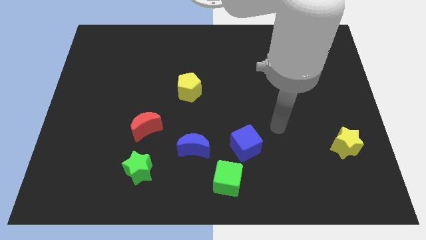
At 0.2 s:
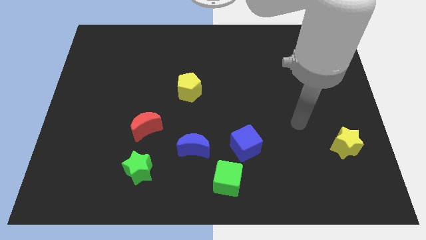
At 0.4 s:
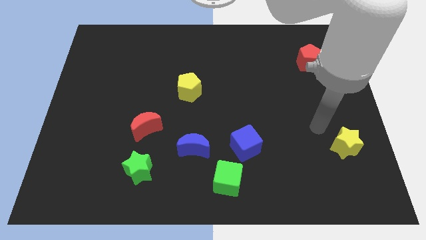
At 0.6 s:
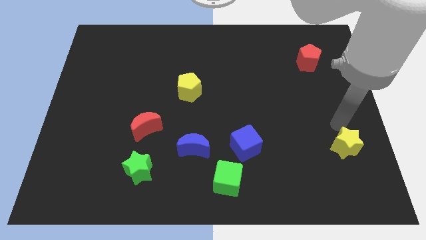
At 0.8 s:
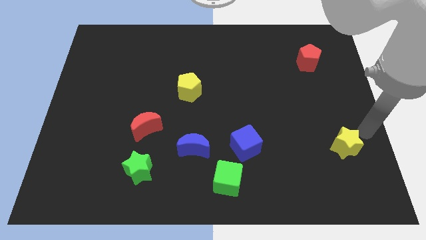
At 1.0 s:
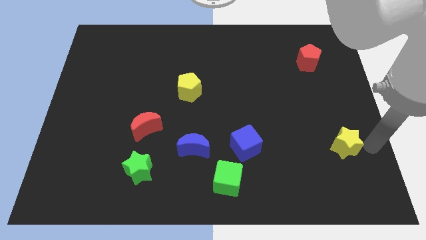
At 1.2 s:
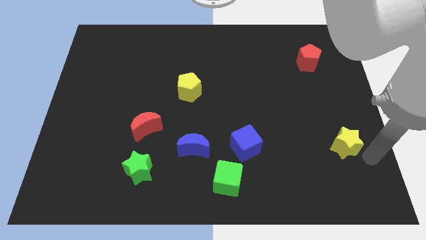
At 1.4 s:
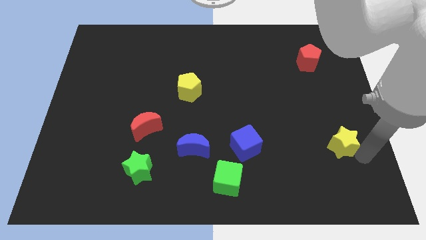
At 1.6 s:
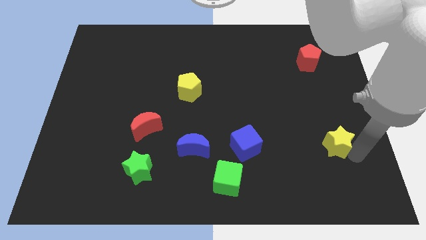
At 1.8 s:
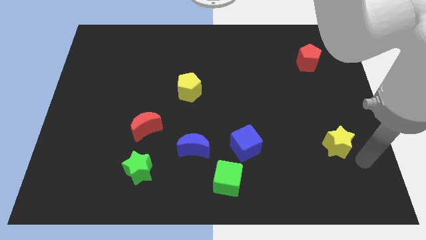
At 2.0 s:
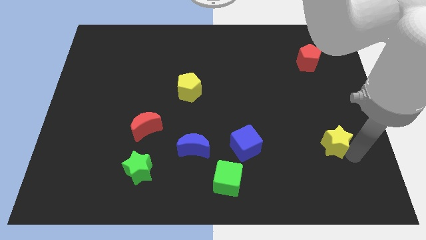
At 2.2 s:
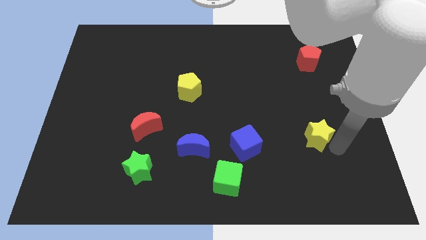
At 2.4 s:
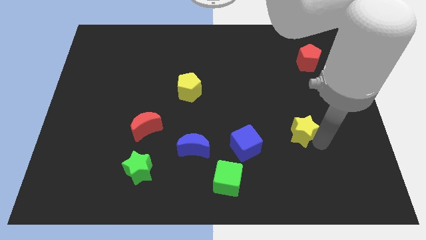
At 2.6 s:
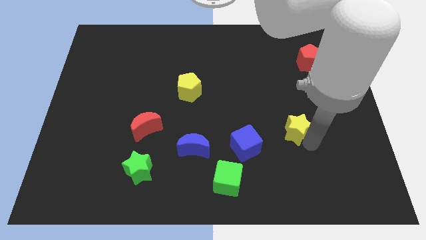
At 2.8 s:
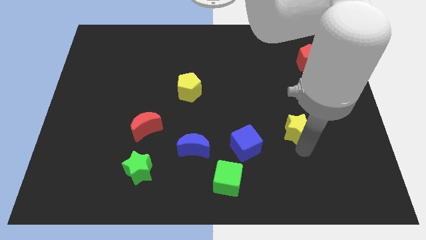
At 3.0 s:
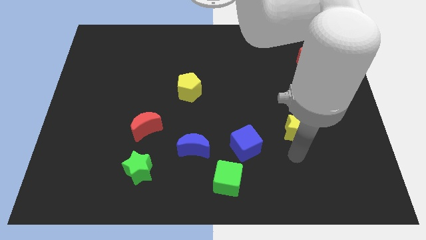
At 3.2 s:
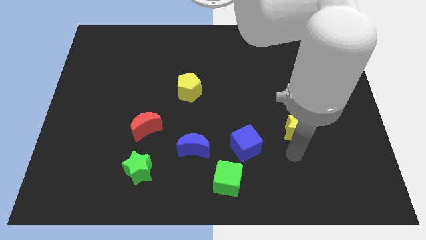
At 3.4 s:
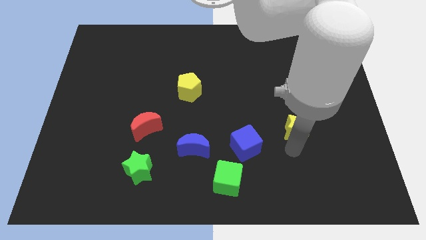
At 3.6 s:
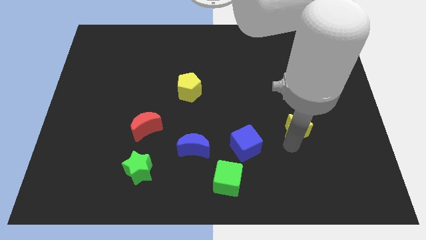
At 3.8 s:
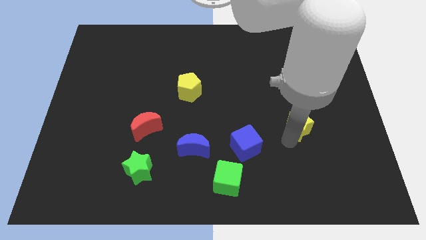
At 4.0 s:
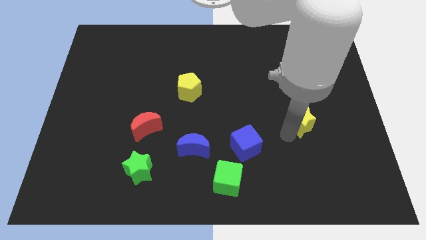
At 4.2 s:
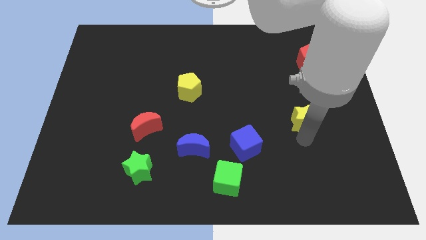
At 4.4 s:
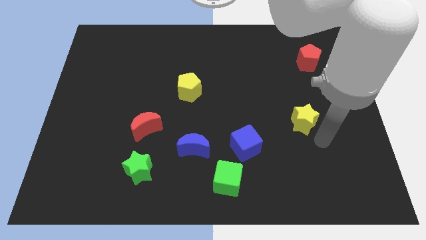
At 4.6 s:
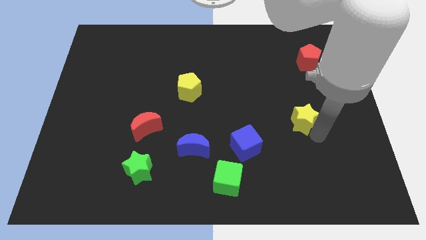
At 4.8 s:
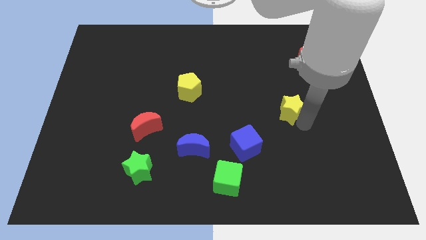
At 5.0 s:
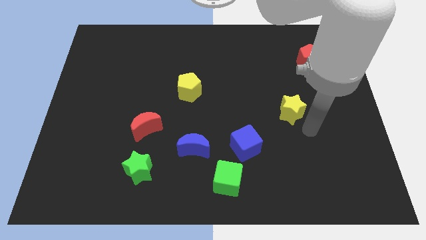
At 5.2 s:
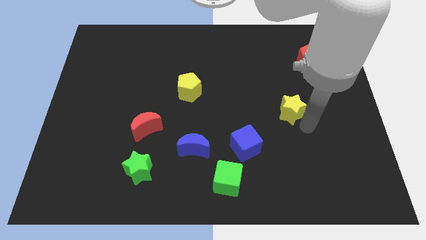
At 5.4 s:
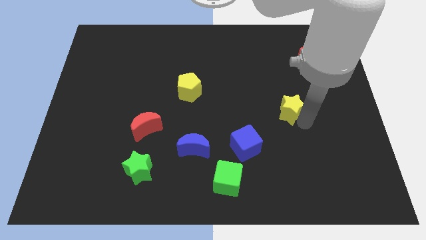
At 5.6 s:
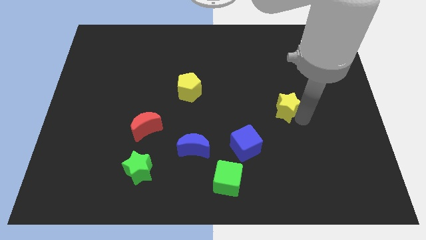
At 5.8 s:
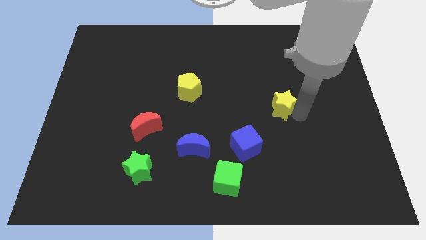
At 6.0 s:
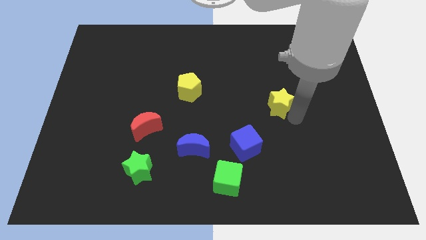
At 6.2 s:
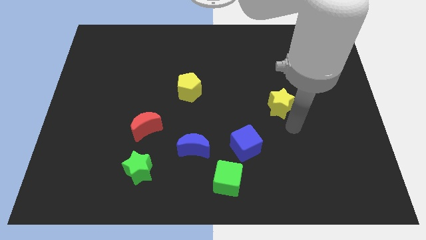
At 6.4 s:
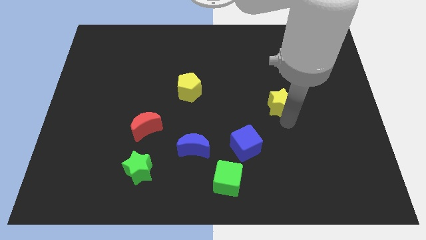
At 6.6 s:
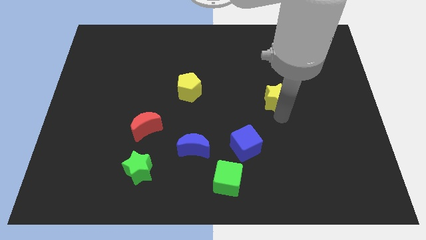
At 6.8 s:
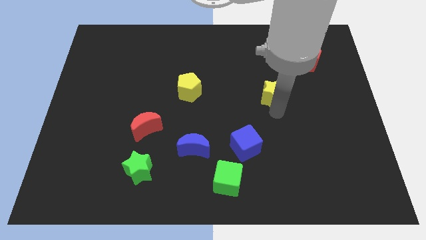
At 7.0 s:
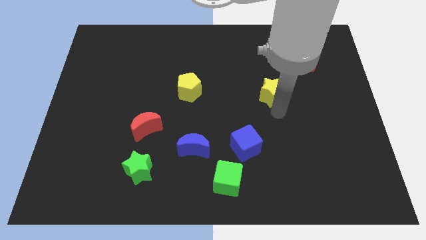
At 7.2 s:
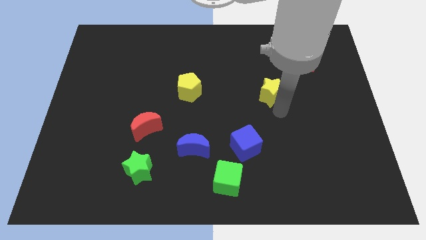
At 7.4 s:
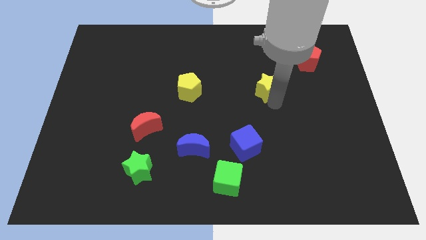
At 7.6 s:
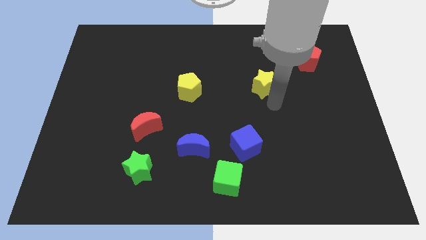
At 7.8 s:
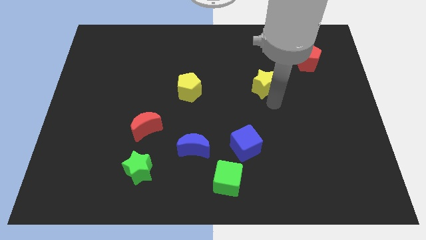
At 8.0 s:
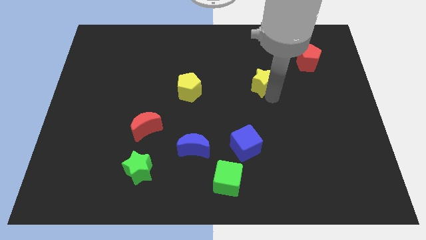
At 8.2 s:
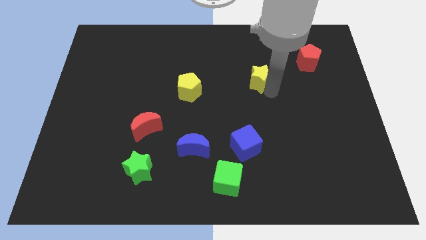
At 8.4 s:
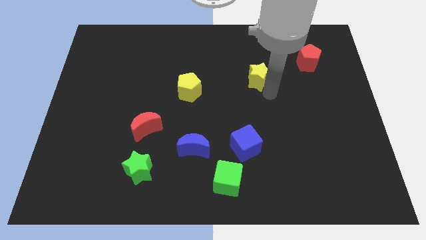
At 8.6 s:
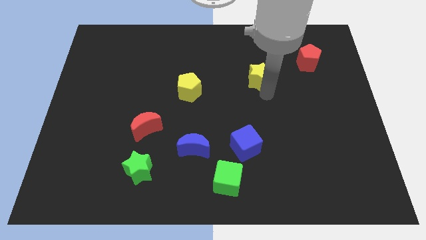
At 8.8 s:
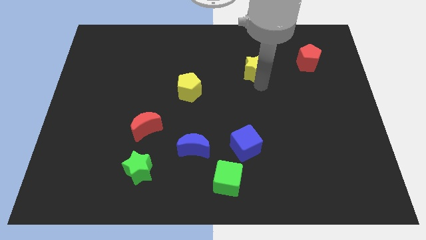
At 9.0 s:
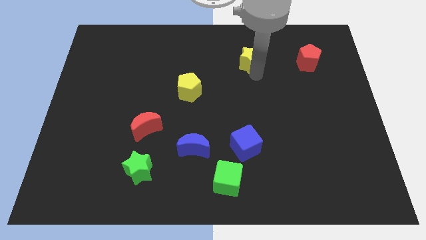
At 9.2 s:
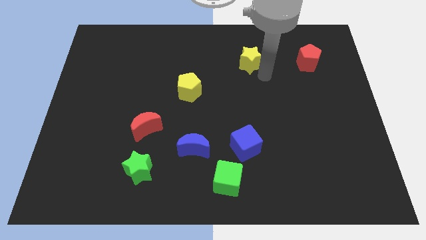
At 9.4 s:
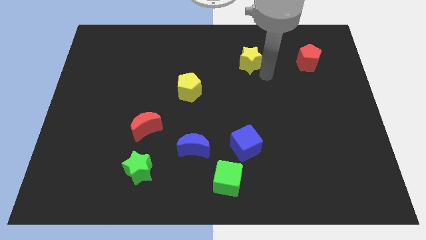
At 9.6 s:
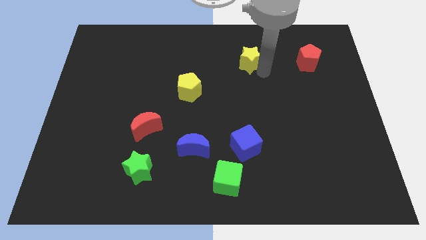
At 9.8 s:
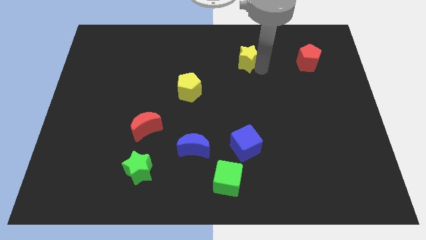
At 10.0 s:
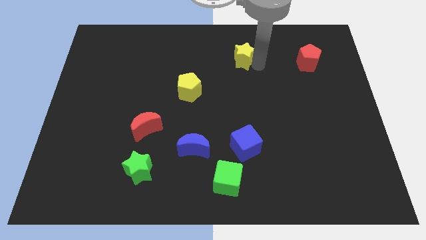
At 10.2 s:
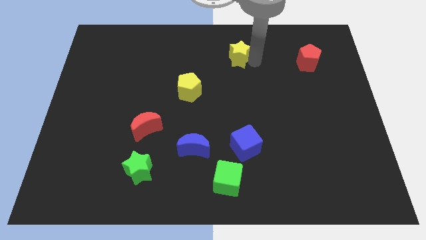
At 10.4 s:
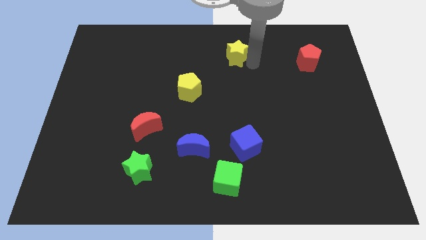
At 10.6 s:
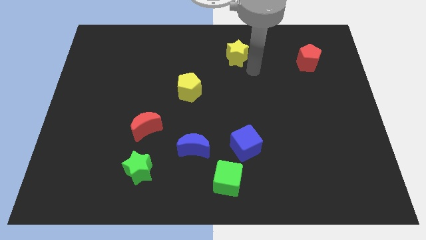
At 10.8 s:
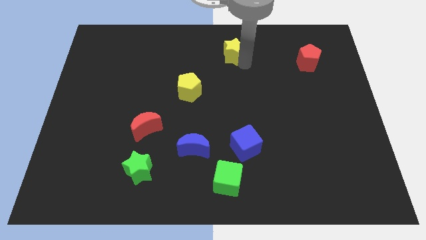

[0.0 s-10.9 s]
move the yellow star to the top side
